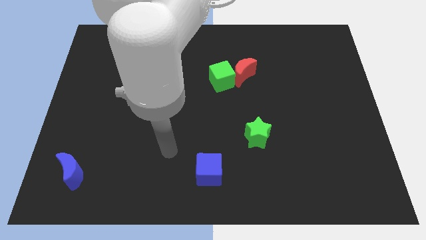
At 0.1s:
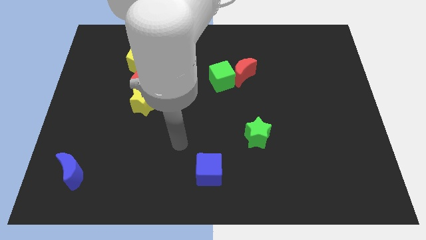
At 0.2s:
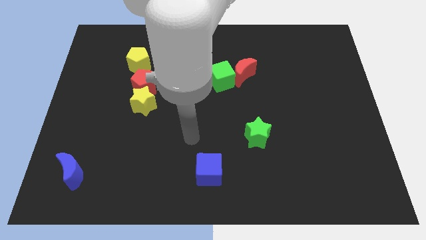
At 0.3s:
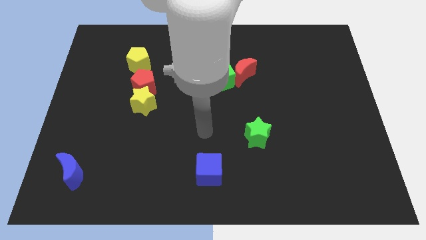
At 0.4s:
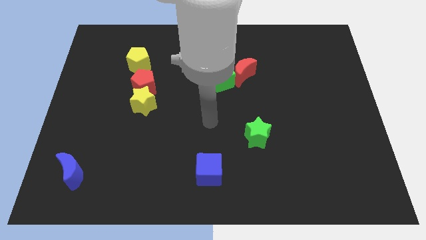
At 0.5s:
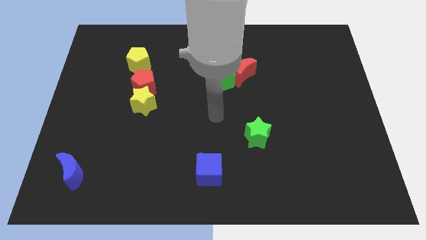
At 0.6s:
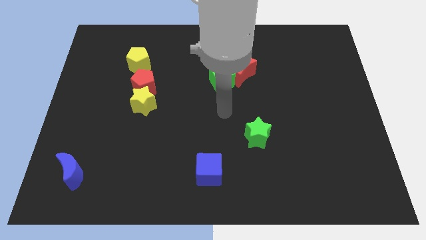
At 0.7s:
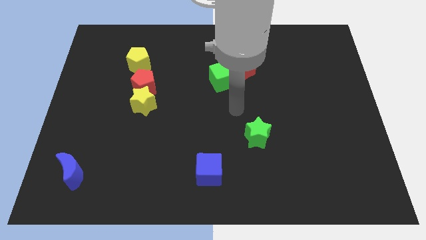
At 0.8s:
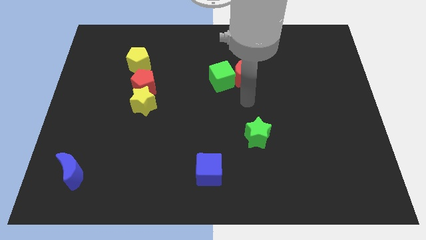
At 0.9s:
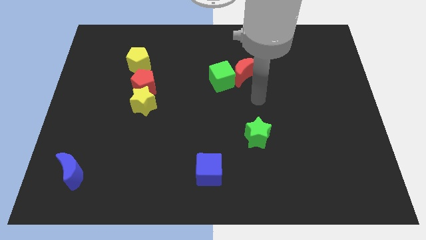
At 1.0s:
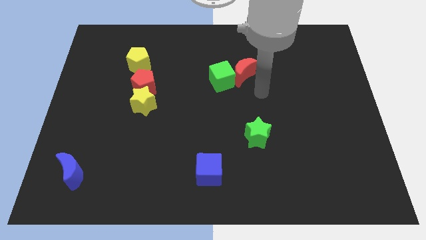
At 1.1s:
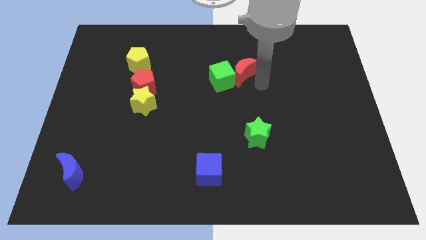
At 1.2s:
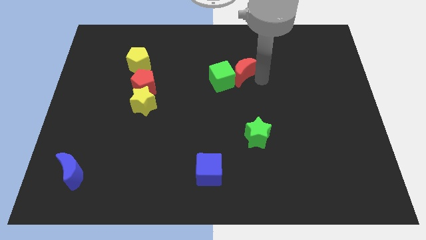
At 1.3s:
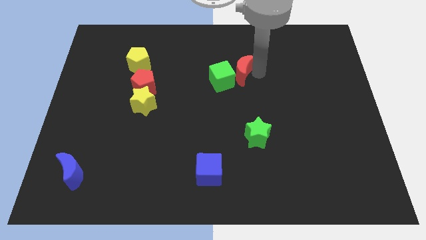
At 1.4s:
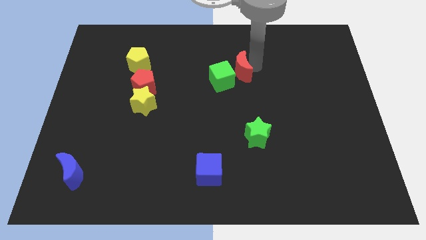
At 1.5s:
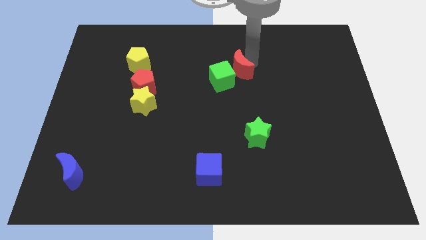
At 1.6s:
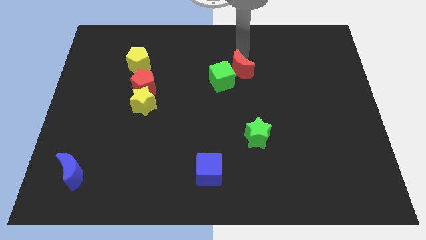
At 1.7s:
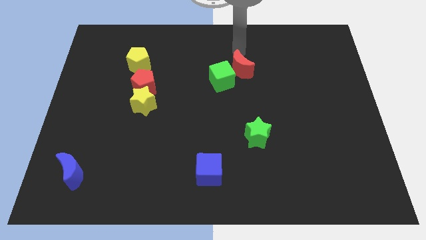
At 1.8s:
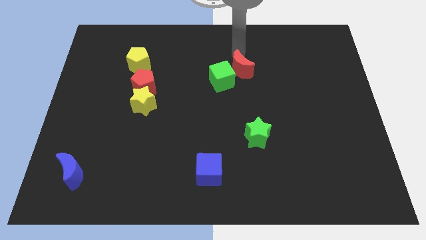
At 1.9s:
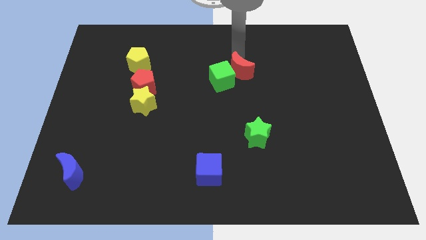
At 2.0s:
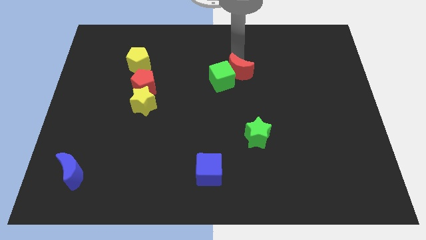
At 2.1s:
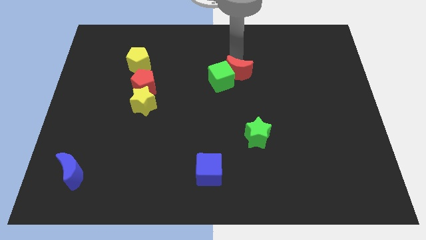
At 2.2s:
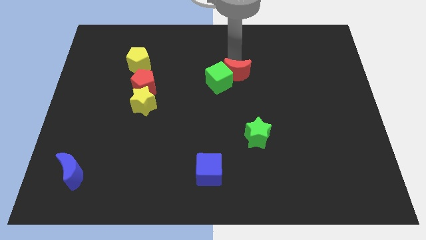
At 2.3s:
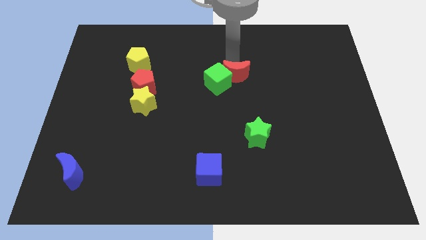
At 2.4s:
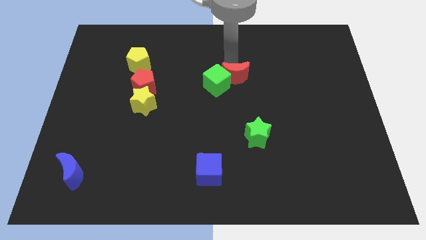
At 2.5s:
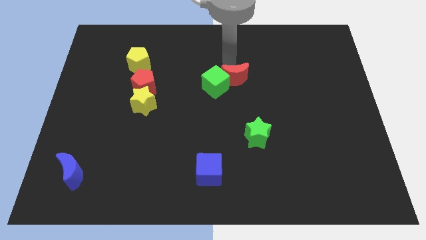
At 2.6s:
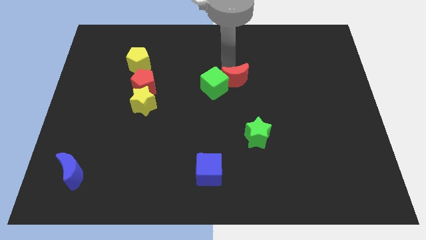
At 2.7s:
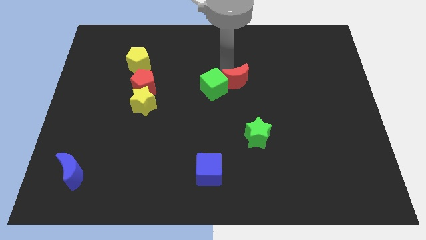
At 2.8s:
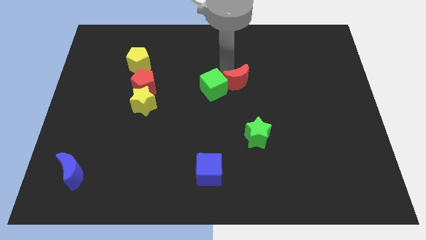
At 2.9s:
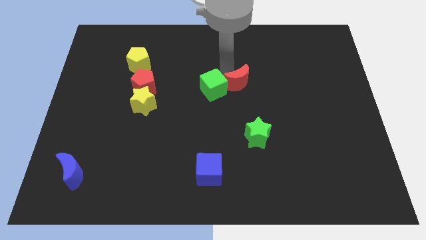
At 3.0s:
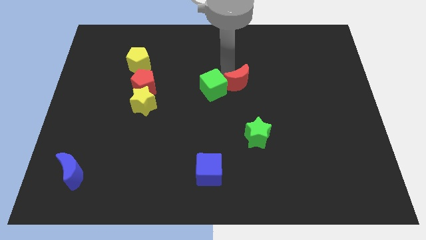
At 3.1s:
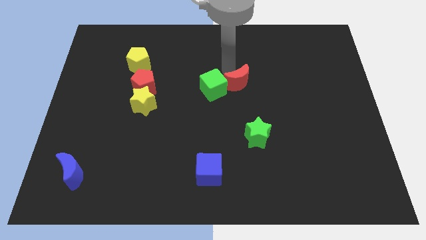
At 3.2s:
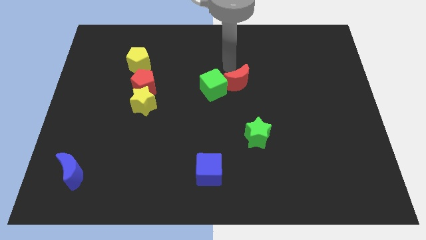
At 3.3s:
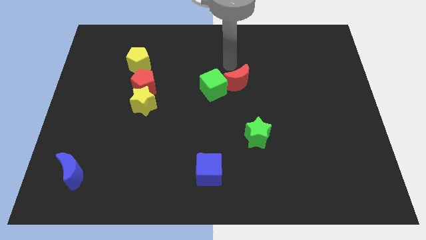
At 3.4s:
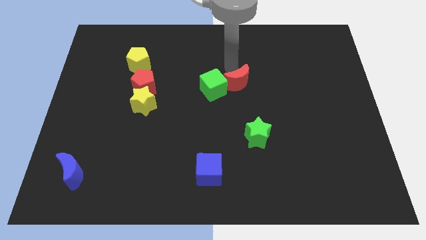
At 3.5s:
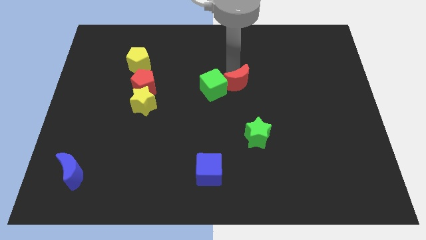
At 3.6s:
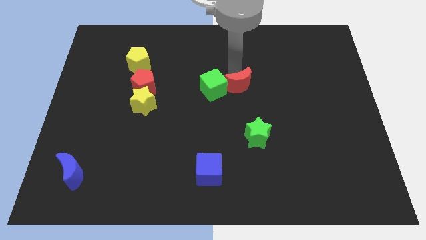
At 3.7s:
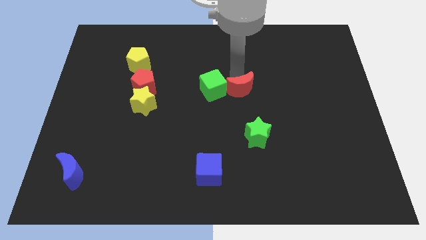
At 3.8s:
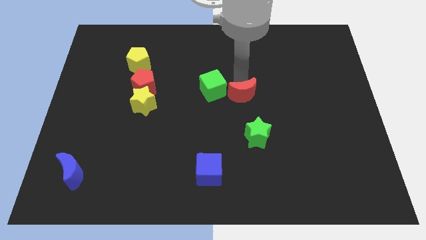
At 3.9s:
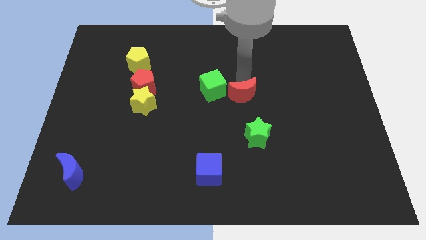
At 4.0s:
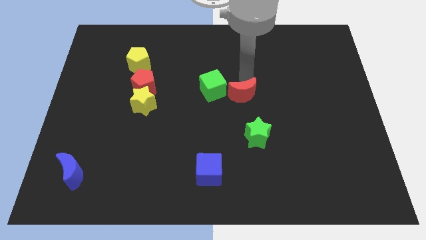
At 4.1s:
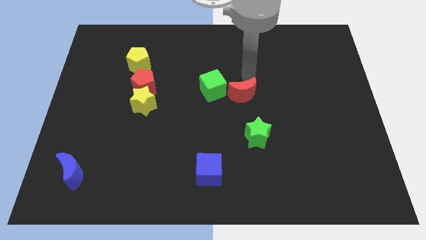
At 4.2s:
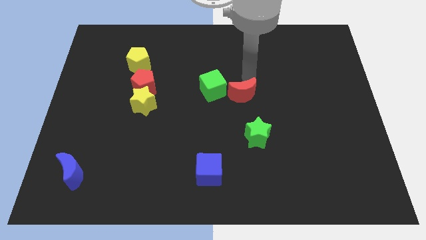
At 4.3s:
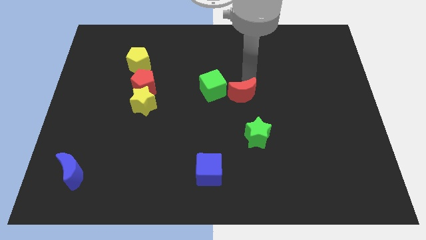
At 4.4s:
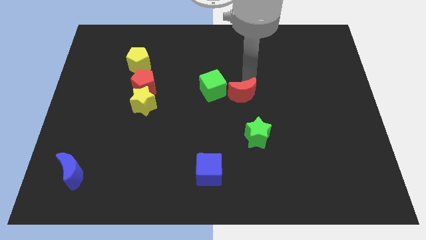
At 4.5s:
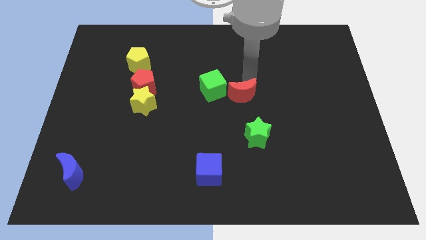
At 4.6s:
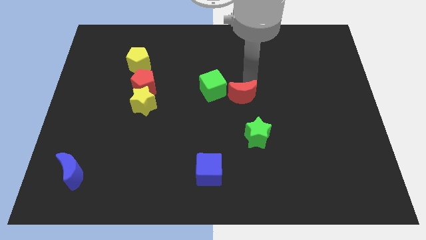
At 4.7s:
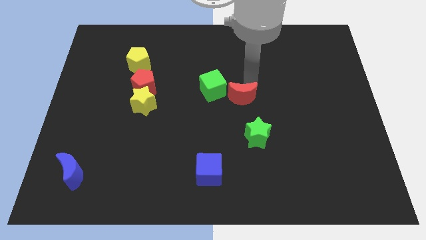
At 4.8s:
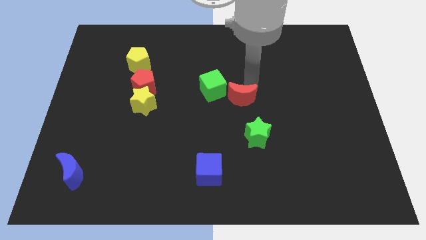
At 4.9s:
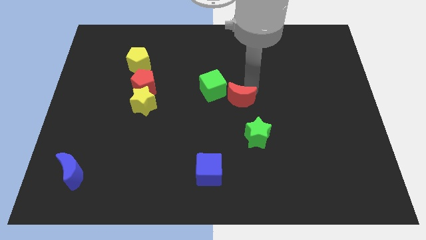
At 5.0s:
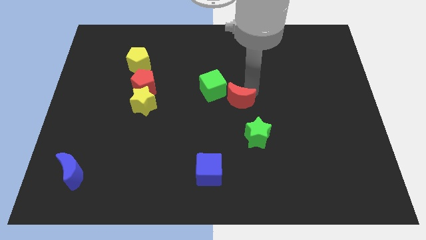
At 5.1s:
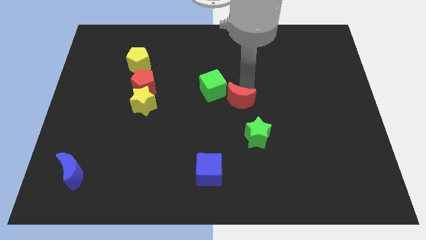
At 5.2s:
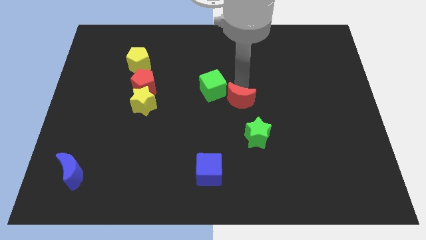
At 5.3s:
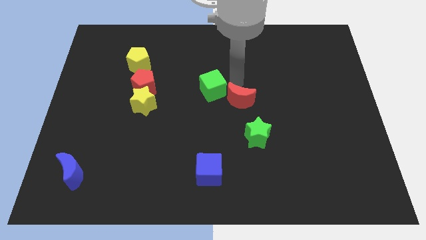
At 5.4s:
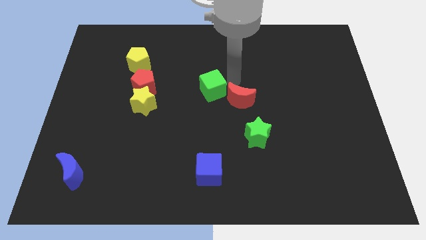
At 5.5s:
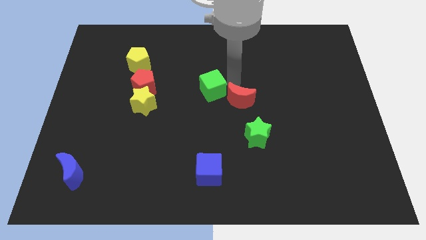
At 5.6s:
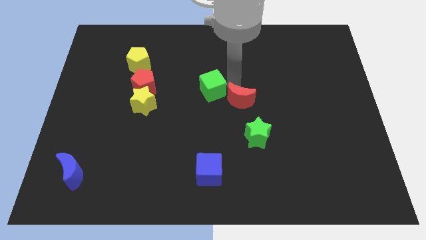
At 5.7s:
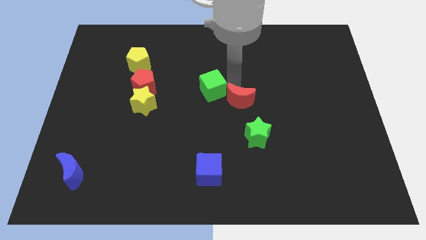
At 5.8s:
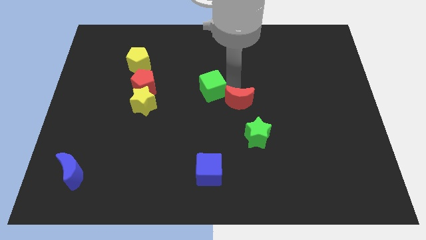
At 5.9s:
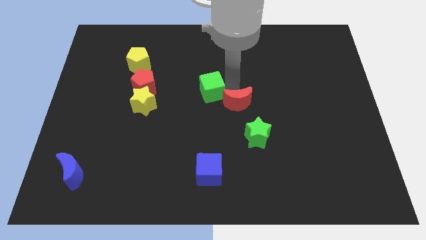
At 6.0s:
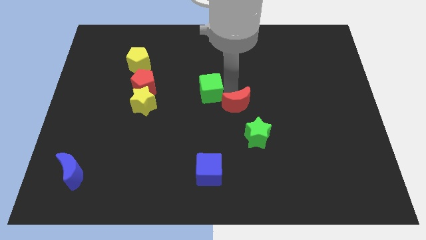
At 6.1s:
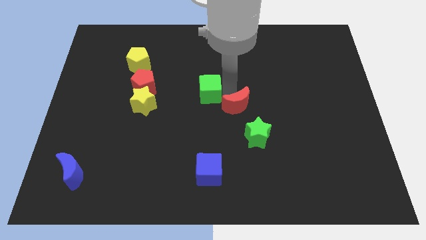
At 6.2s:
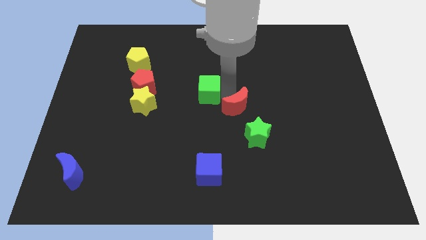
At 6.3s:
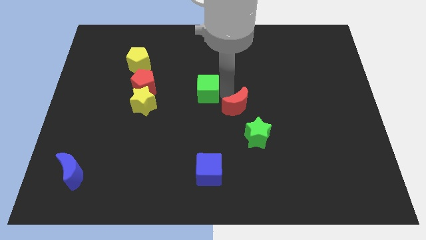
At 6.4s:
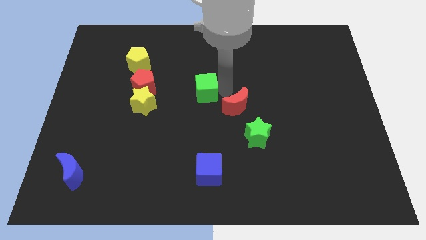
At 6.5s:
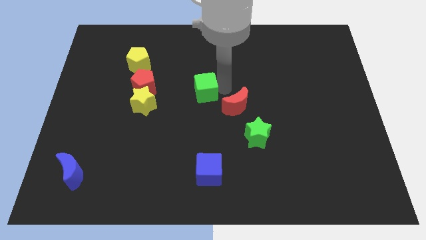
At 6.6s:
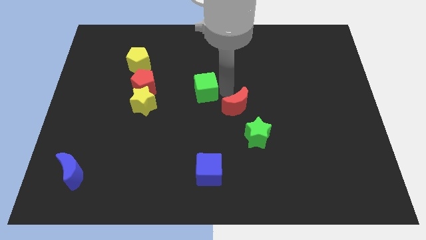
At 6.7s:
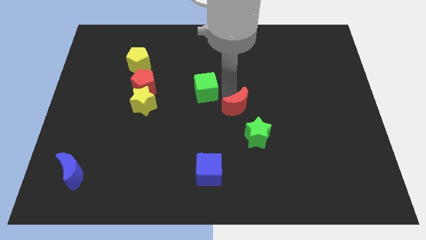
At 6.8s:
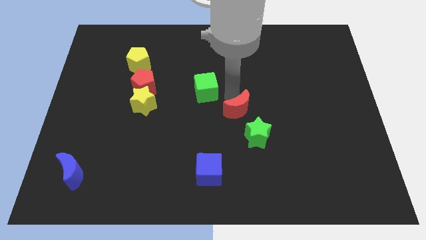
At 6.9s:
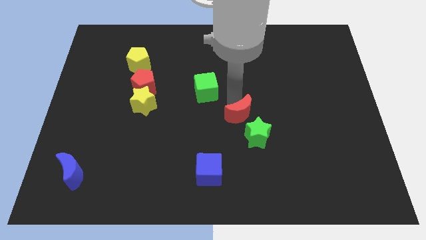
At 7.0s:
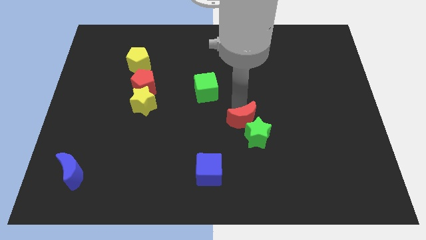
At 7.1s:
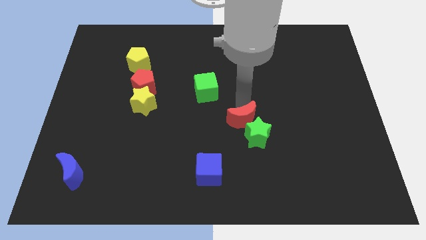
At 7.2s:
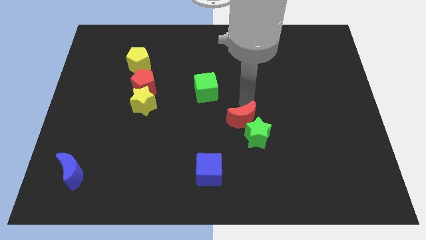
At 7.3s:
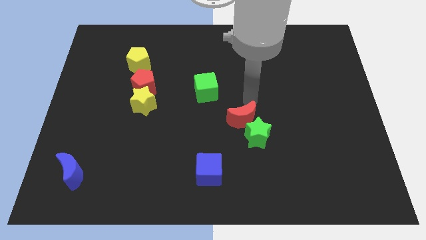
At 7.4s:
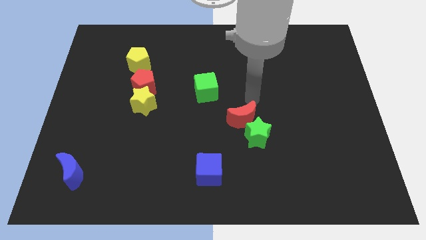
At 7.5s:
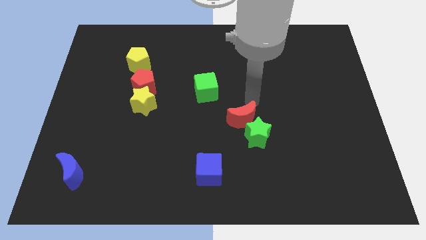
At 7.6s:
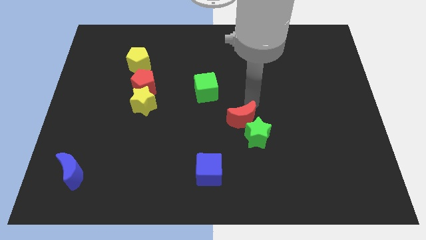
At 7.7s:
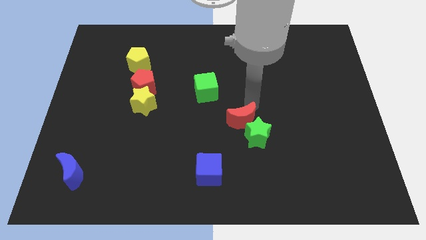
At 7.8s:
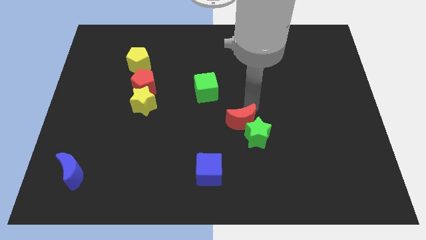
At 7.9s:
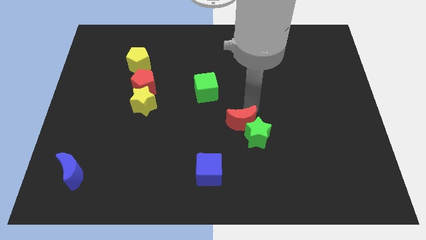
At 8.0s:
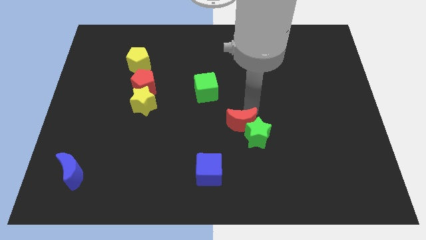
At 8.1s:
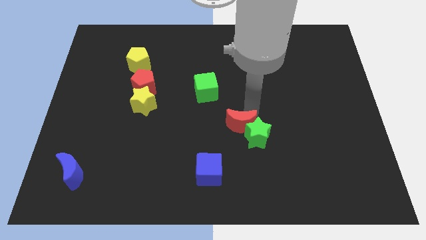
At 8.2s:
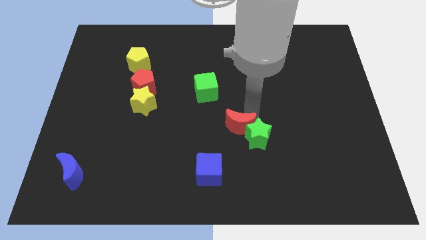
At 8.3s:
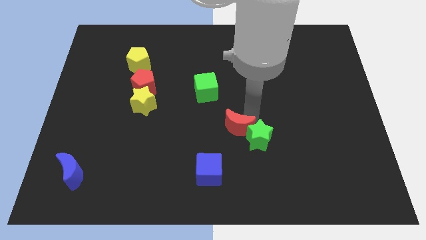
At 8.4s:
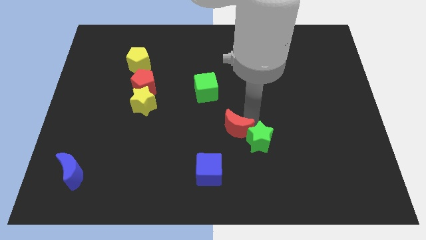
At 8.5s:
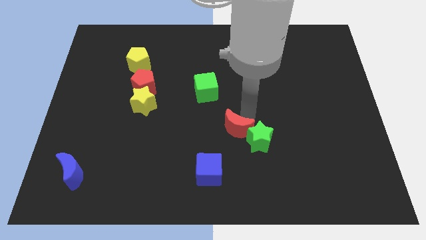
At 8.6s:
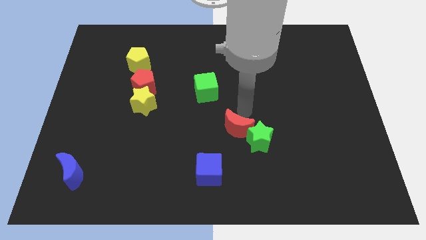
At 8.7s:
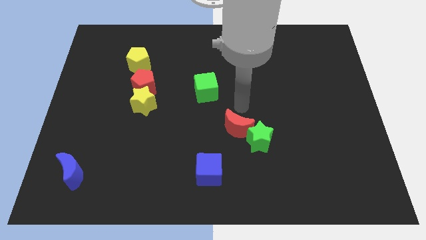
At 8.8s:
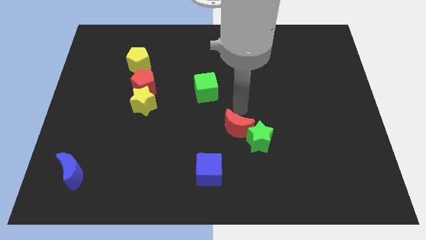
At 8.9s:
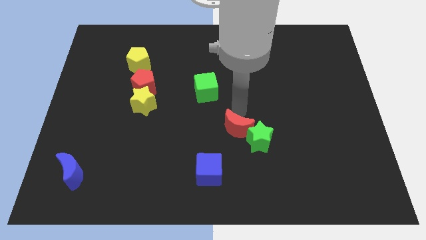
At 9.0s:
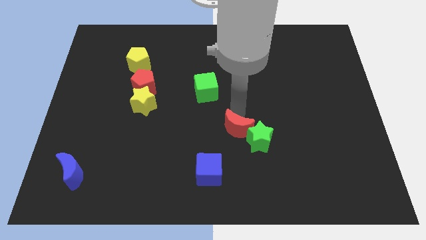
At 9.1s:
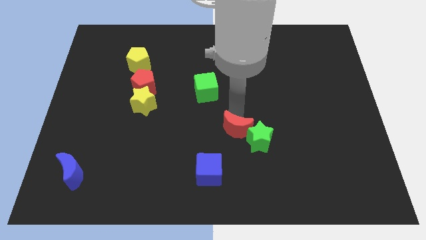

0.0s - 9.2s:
push the red moon to the top right side of the blue cube
